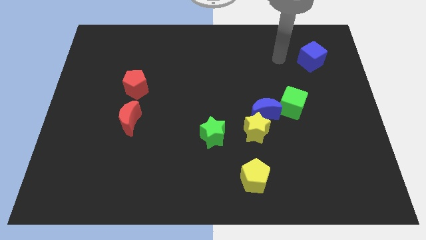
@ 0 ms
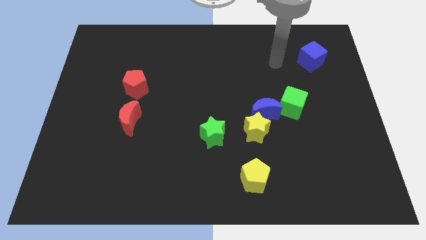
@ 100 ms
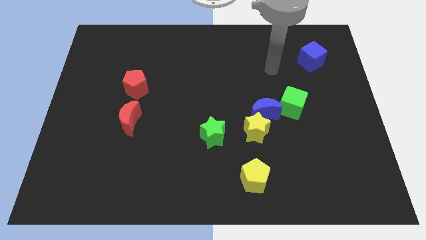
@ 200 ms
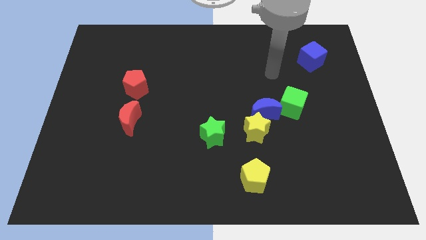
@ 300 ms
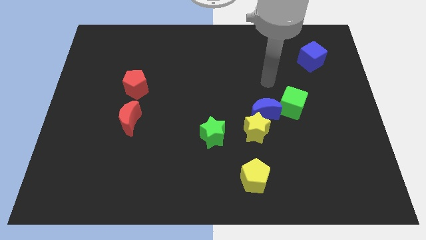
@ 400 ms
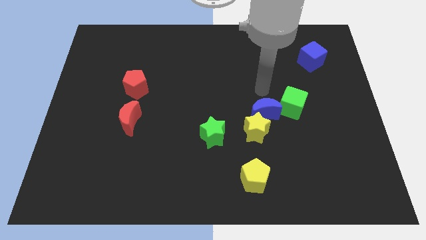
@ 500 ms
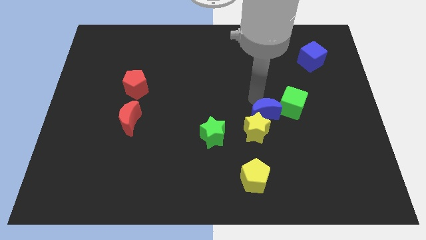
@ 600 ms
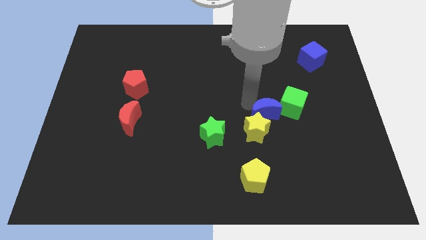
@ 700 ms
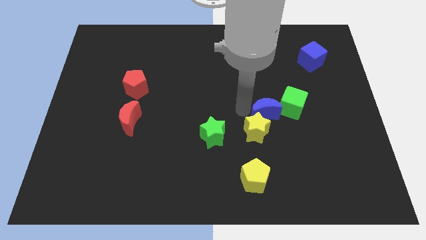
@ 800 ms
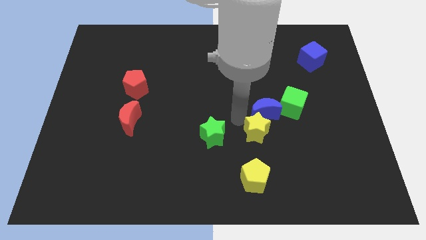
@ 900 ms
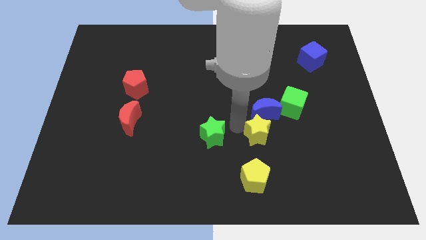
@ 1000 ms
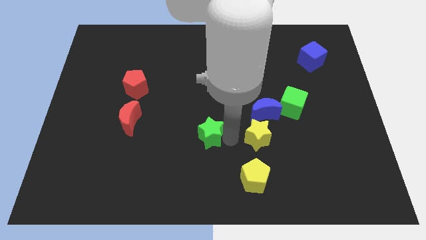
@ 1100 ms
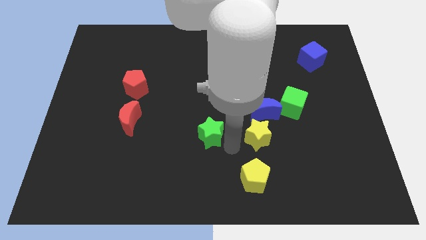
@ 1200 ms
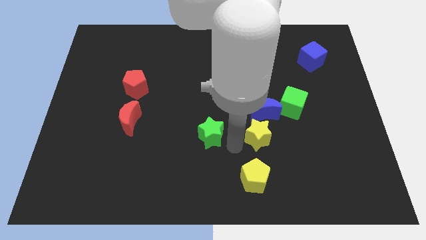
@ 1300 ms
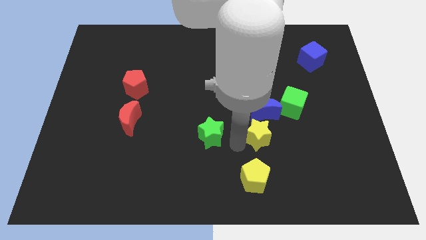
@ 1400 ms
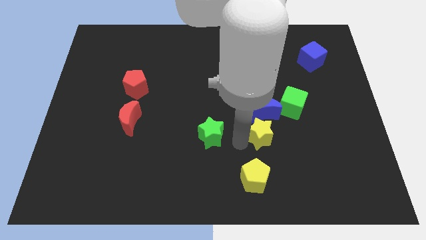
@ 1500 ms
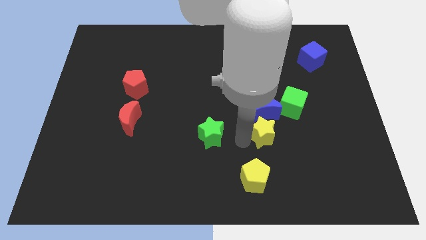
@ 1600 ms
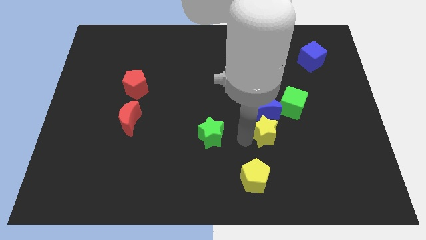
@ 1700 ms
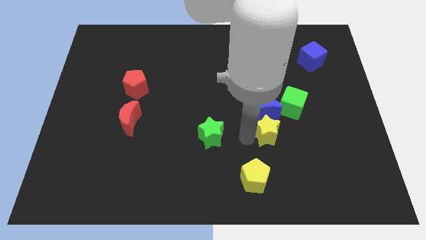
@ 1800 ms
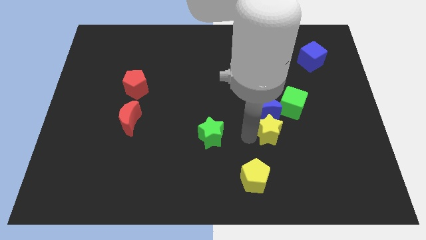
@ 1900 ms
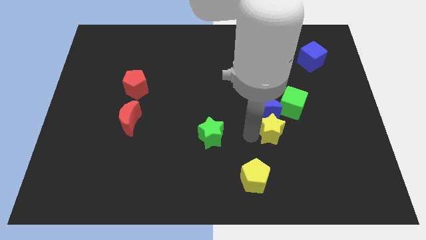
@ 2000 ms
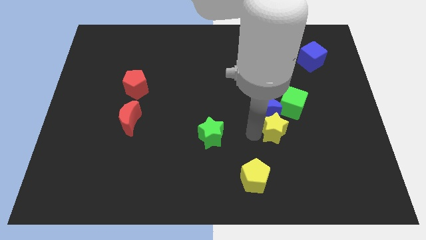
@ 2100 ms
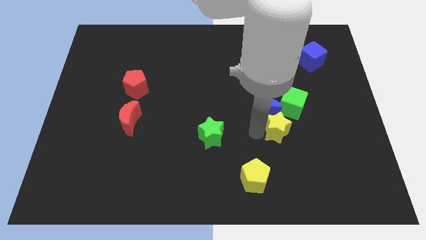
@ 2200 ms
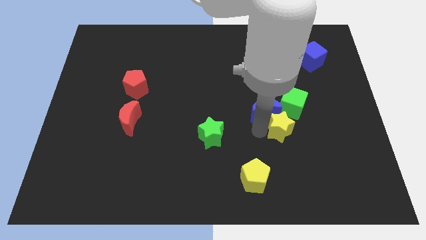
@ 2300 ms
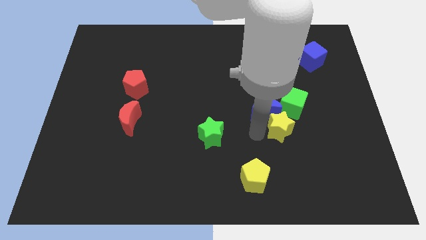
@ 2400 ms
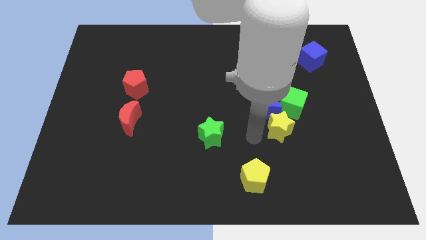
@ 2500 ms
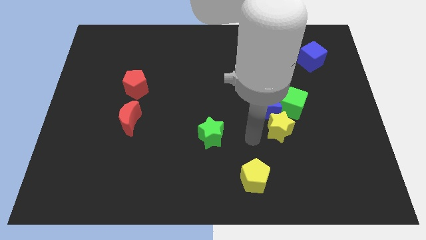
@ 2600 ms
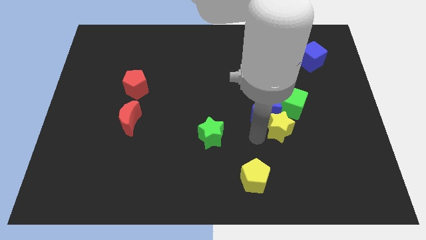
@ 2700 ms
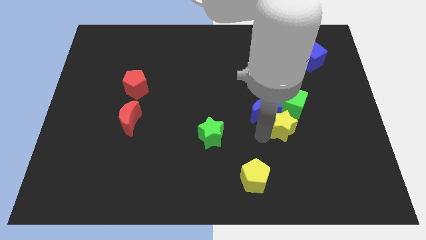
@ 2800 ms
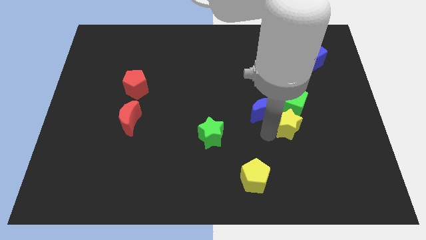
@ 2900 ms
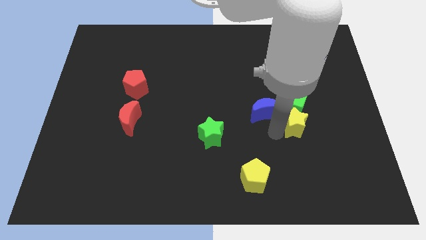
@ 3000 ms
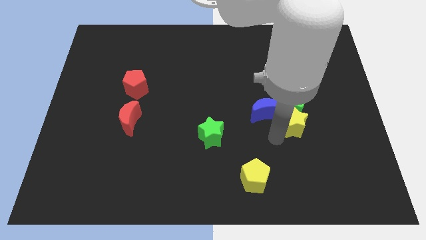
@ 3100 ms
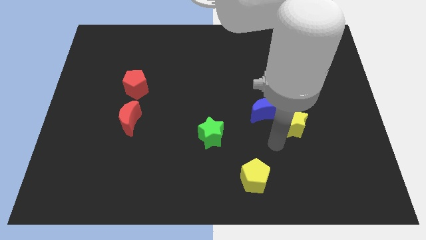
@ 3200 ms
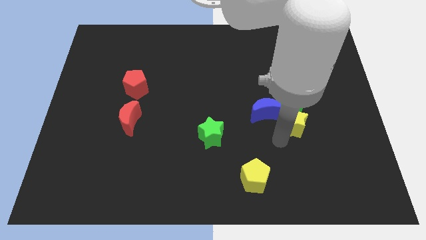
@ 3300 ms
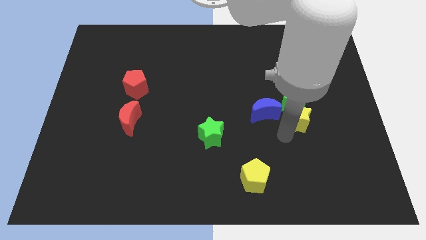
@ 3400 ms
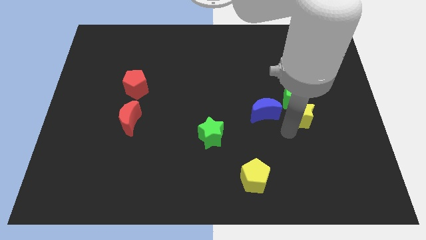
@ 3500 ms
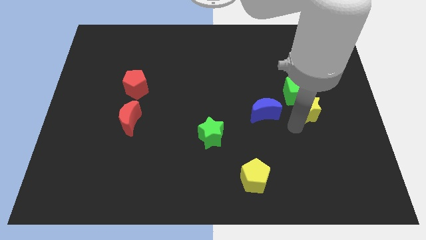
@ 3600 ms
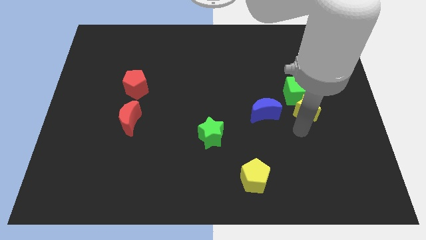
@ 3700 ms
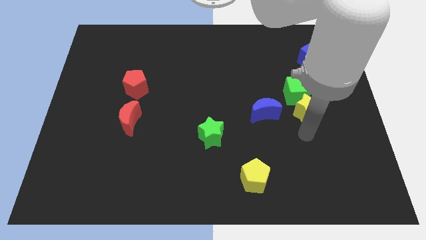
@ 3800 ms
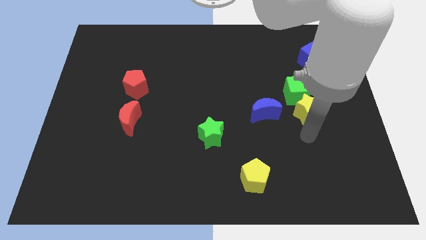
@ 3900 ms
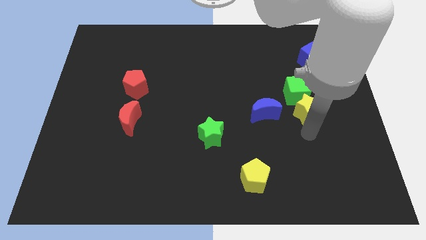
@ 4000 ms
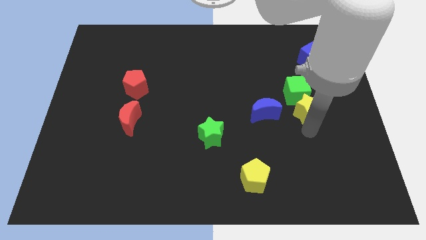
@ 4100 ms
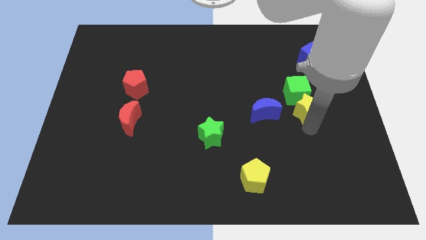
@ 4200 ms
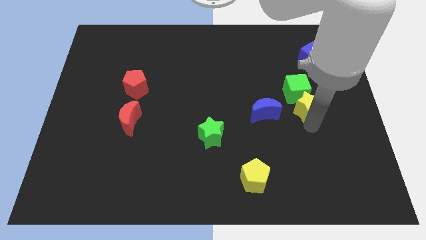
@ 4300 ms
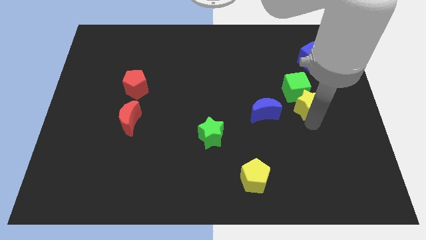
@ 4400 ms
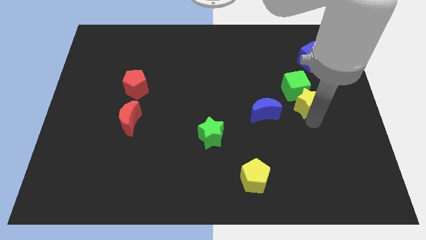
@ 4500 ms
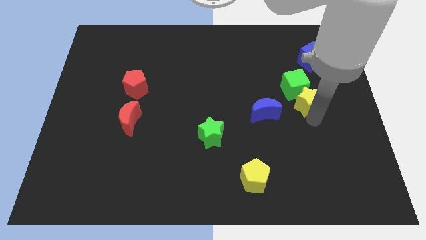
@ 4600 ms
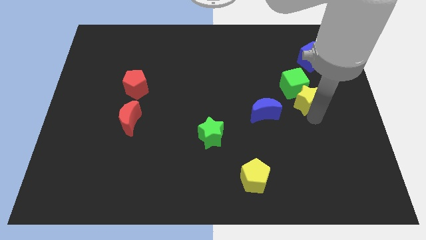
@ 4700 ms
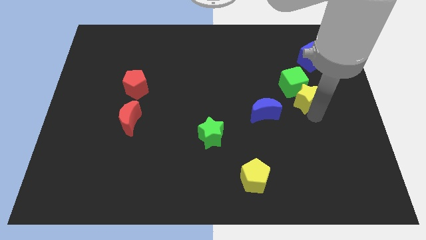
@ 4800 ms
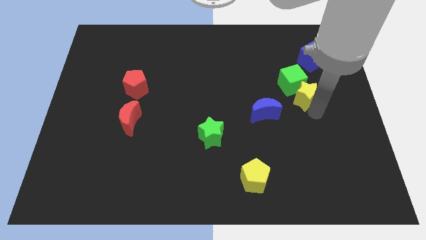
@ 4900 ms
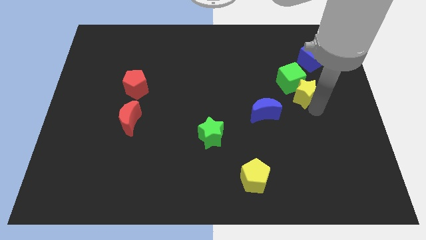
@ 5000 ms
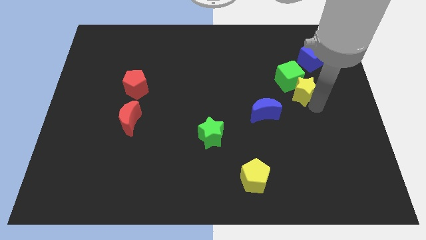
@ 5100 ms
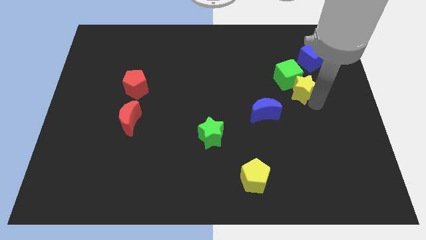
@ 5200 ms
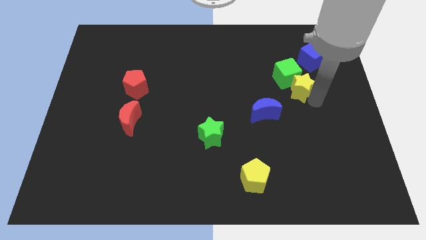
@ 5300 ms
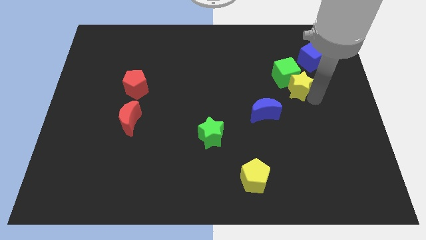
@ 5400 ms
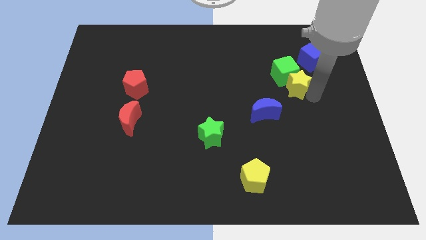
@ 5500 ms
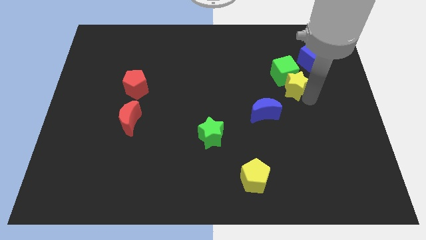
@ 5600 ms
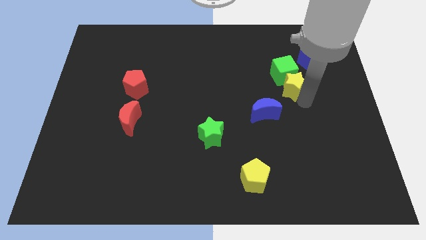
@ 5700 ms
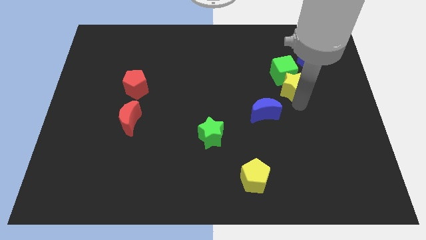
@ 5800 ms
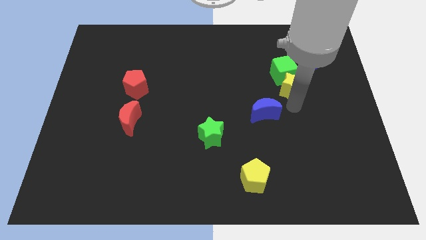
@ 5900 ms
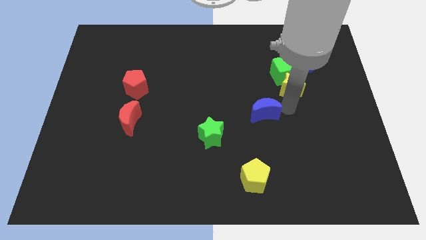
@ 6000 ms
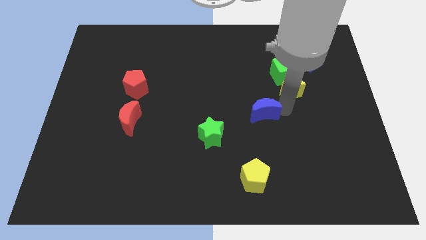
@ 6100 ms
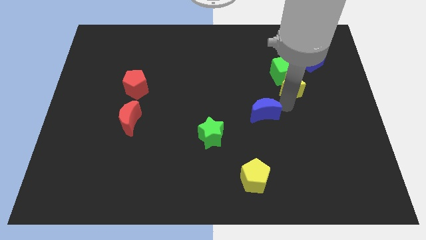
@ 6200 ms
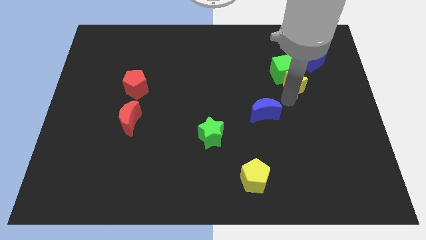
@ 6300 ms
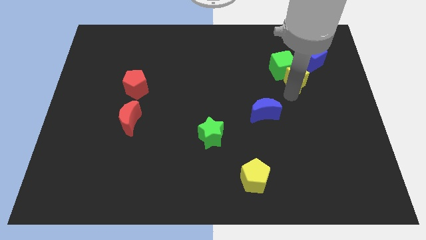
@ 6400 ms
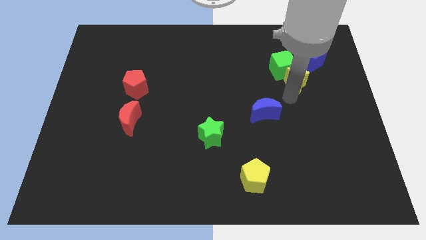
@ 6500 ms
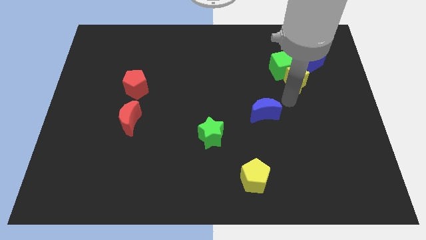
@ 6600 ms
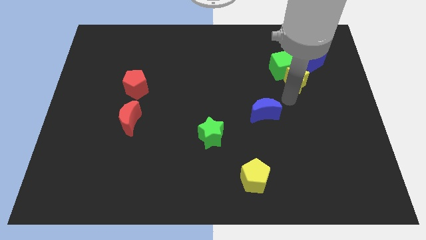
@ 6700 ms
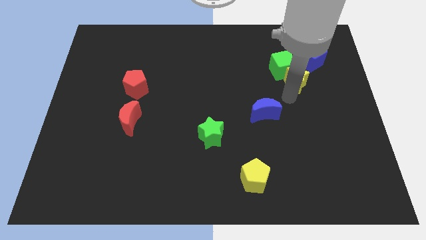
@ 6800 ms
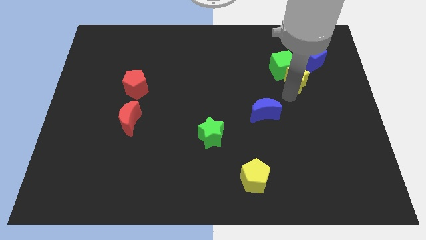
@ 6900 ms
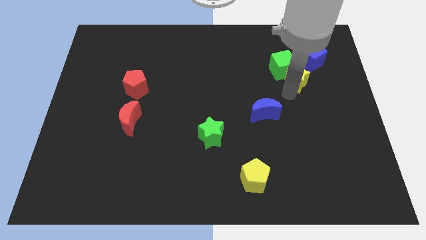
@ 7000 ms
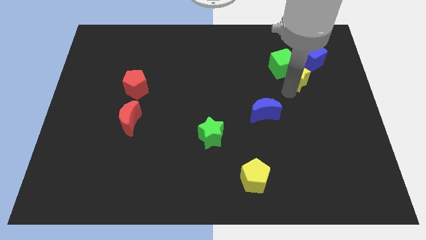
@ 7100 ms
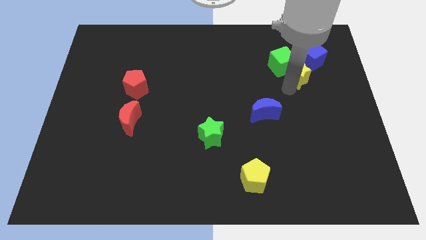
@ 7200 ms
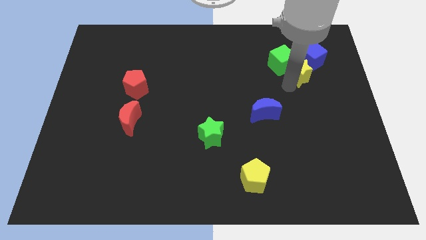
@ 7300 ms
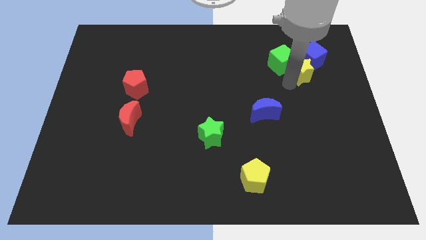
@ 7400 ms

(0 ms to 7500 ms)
move the yellow star next to the blue cube
